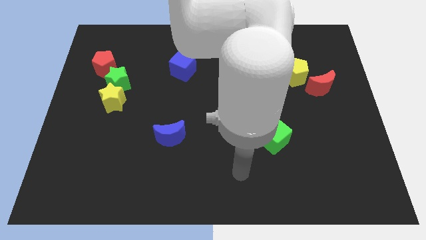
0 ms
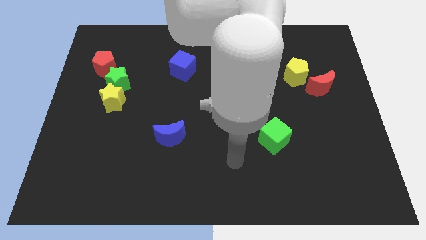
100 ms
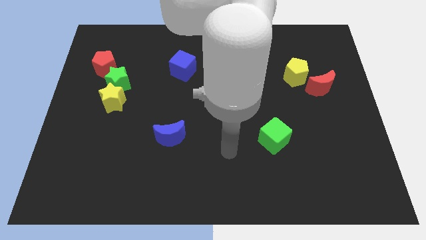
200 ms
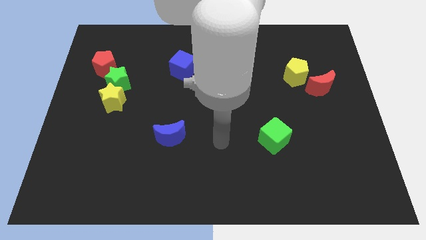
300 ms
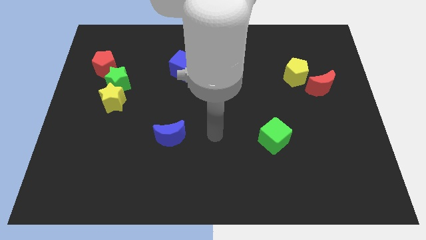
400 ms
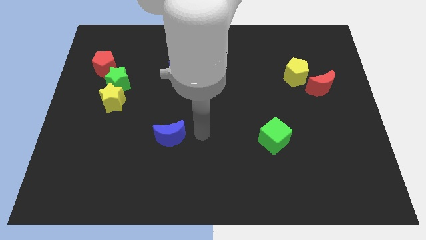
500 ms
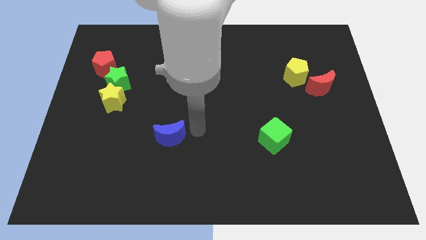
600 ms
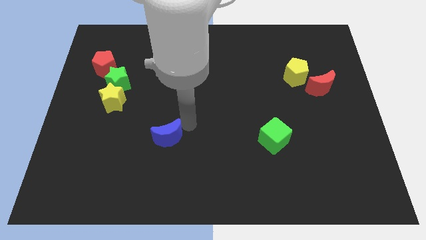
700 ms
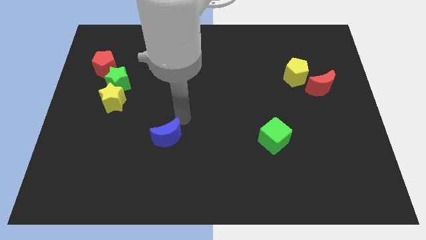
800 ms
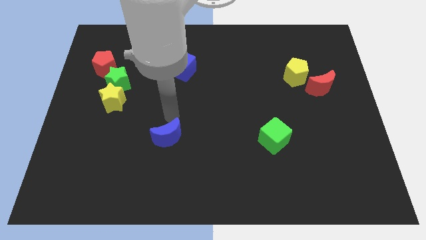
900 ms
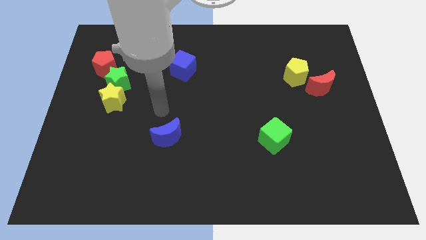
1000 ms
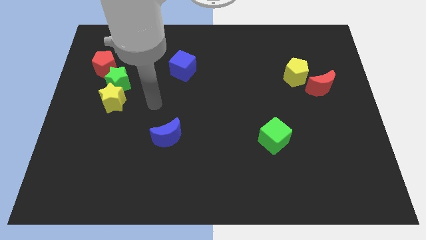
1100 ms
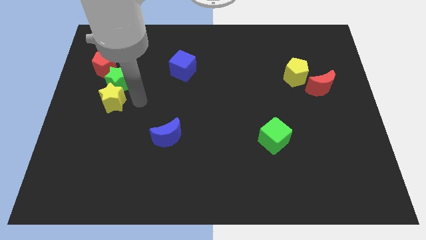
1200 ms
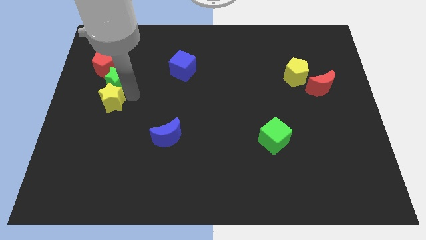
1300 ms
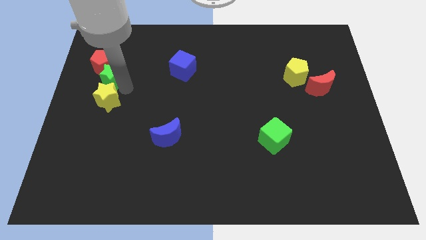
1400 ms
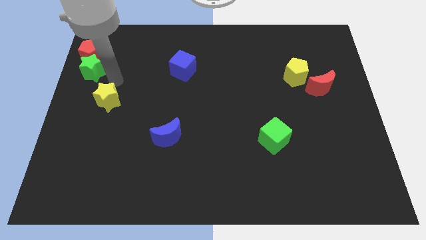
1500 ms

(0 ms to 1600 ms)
move the yellow star away from the green star

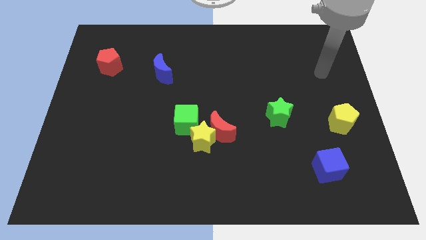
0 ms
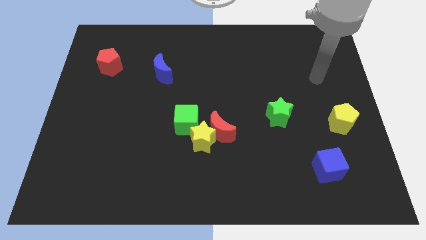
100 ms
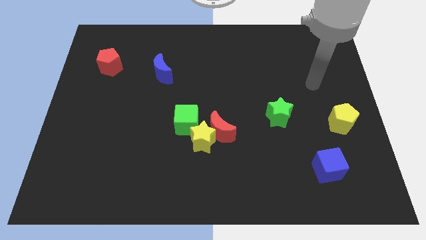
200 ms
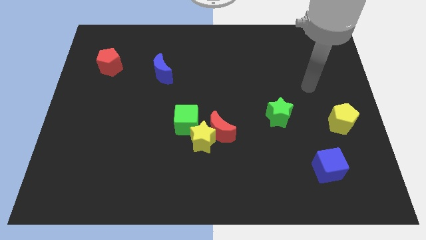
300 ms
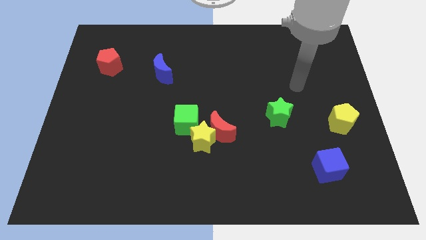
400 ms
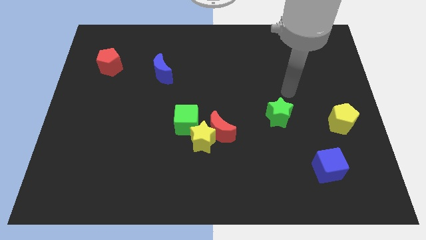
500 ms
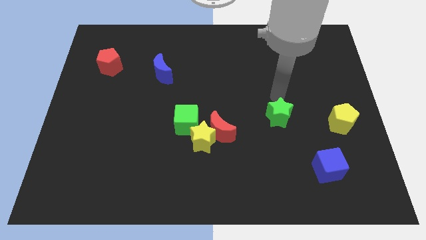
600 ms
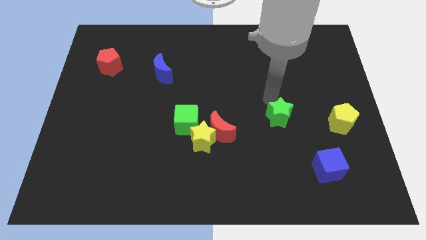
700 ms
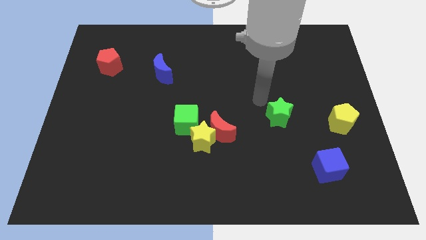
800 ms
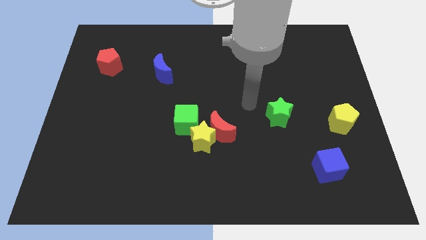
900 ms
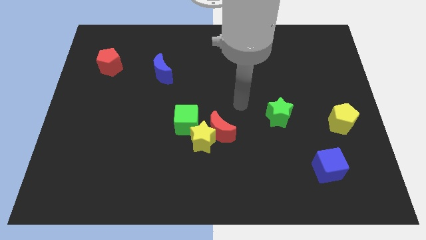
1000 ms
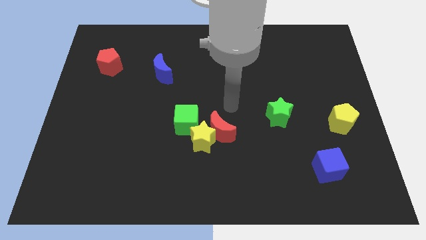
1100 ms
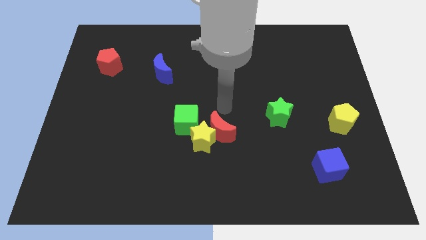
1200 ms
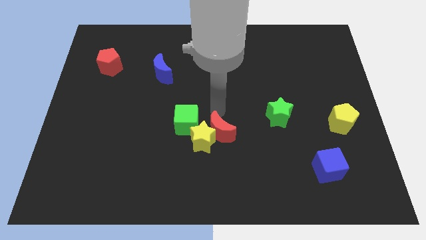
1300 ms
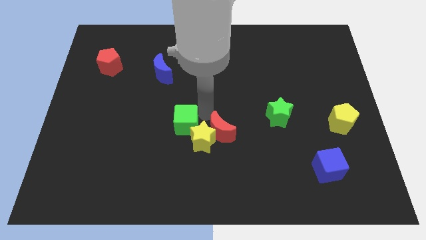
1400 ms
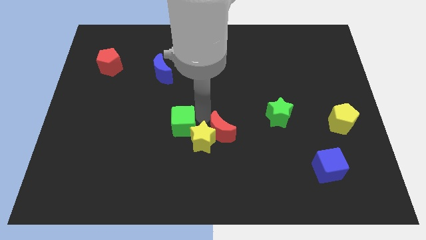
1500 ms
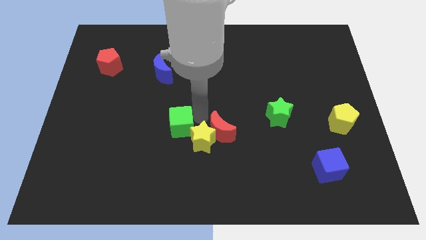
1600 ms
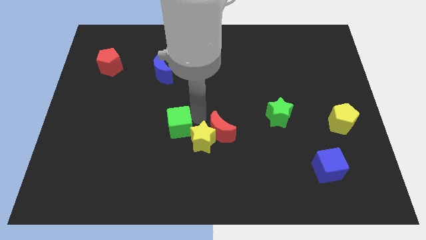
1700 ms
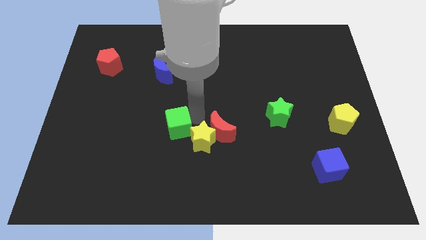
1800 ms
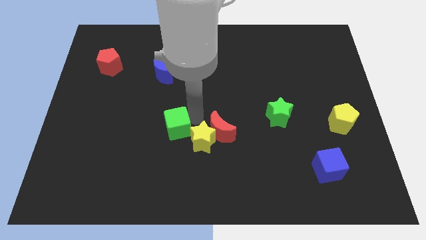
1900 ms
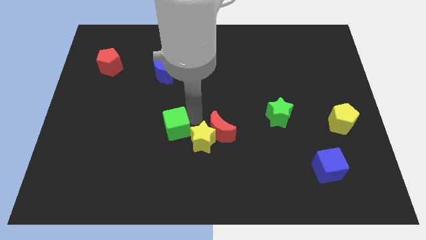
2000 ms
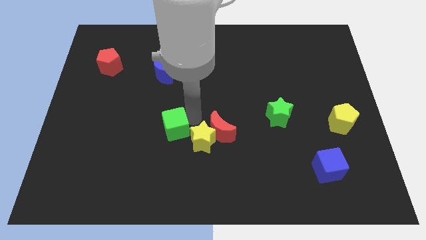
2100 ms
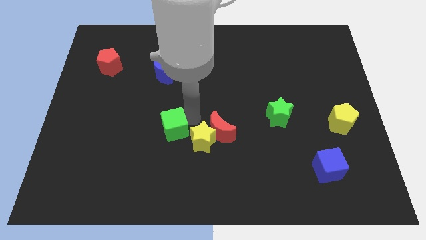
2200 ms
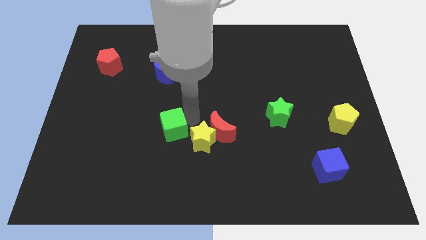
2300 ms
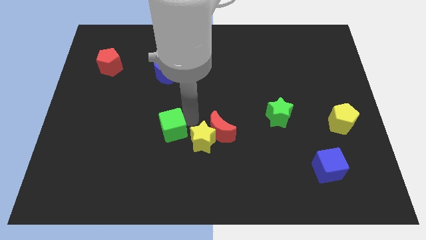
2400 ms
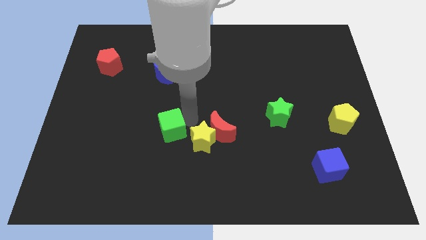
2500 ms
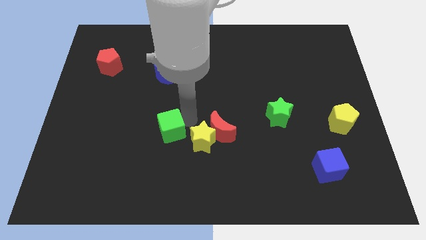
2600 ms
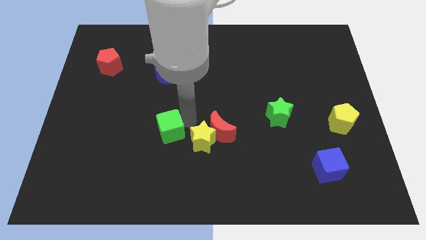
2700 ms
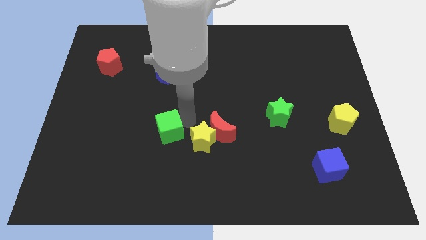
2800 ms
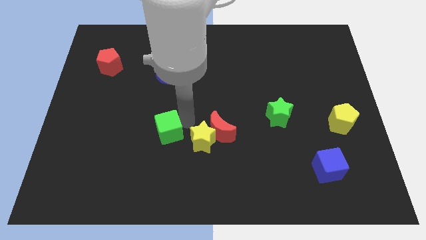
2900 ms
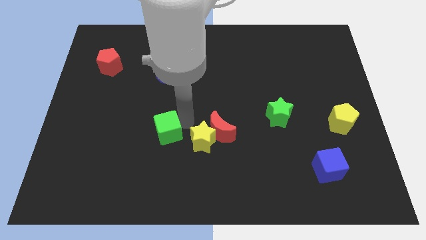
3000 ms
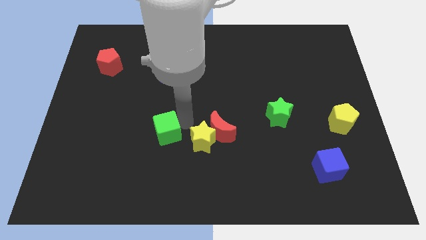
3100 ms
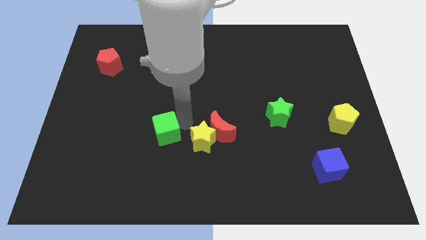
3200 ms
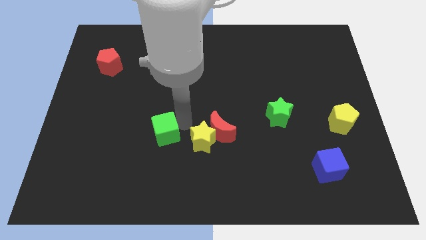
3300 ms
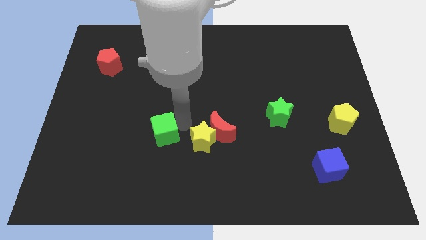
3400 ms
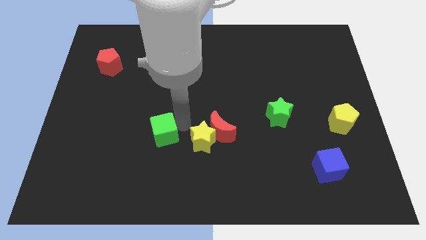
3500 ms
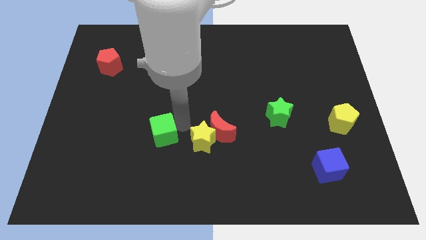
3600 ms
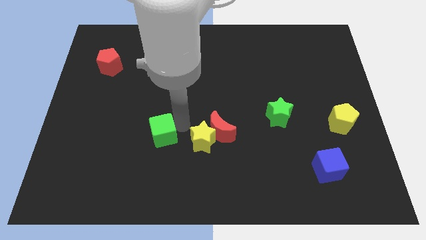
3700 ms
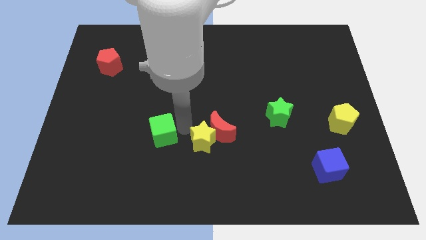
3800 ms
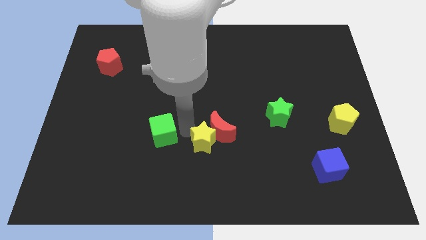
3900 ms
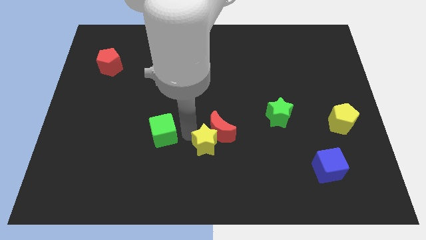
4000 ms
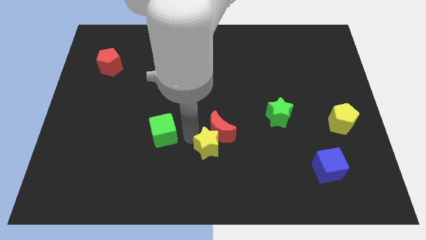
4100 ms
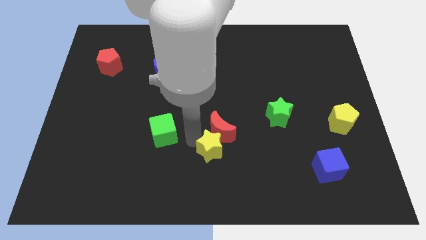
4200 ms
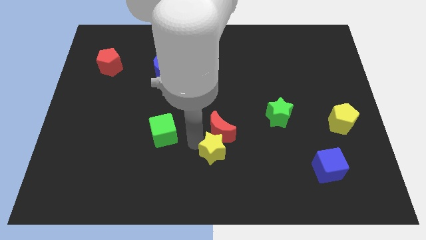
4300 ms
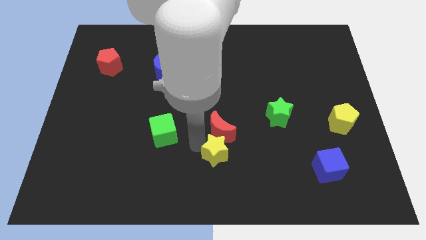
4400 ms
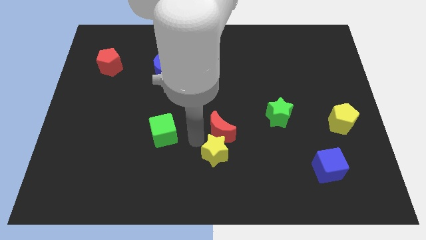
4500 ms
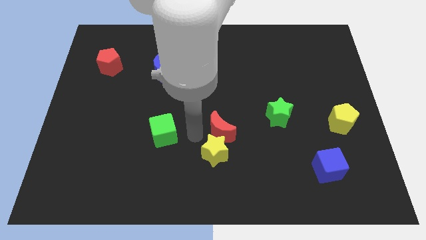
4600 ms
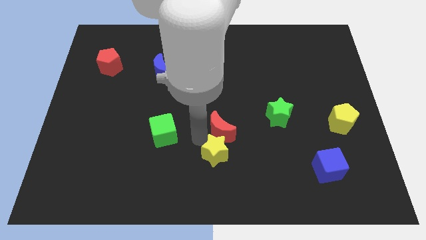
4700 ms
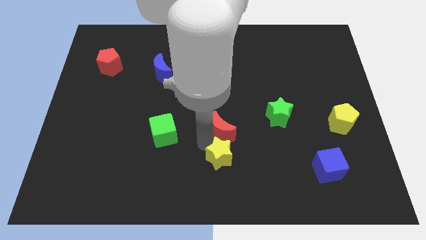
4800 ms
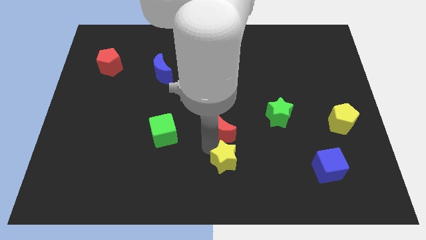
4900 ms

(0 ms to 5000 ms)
separate the yellow star from the red moon and green cube

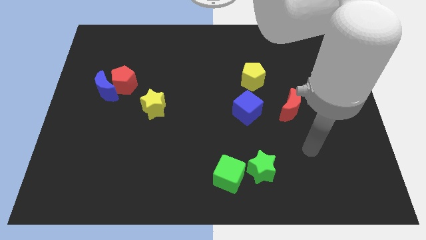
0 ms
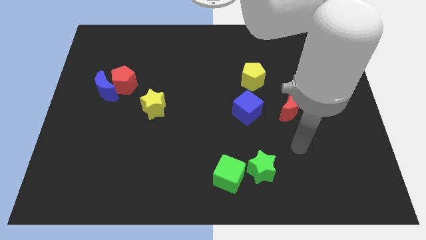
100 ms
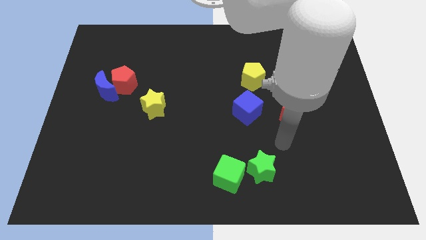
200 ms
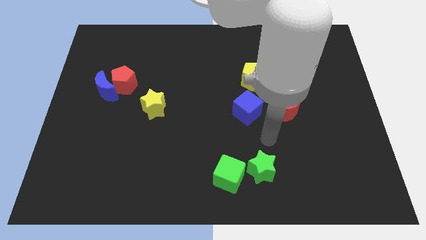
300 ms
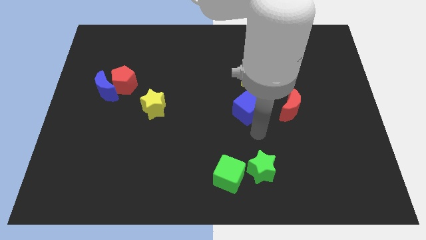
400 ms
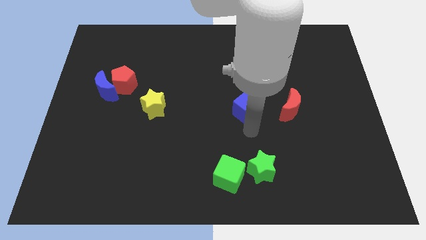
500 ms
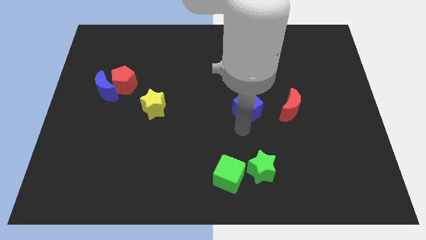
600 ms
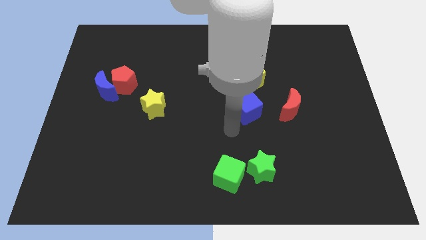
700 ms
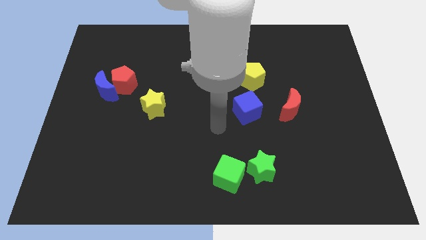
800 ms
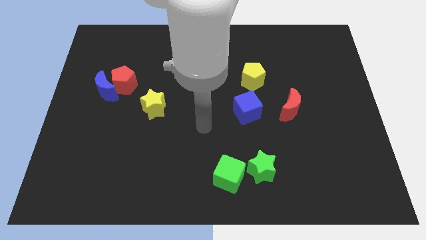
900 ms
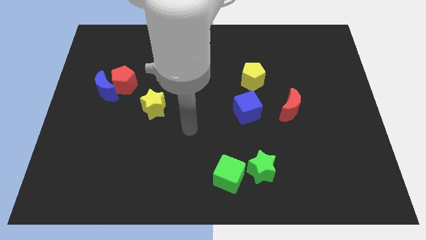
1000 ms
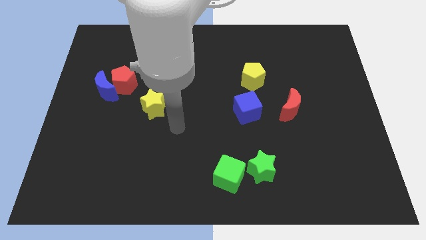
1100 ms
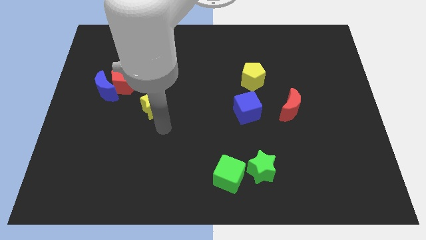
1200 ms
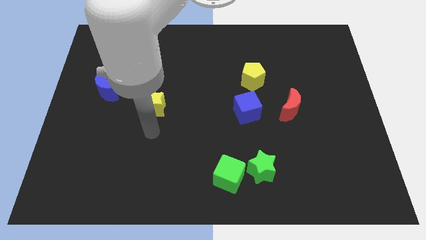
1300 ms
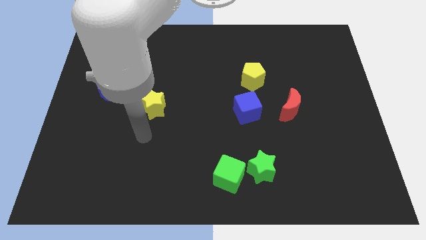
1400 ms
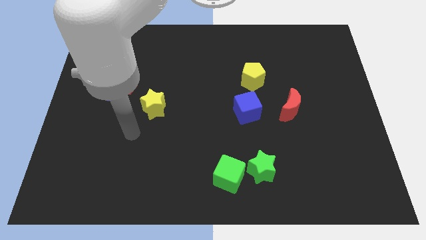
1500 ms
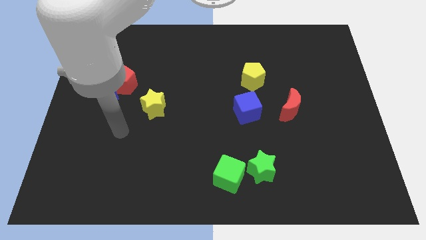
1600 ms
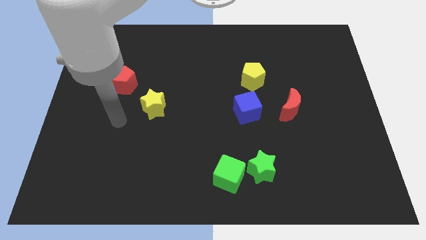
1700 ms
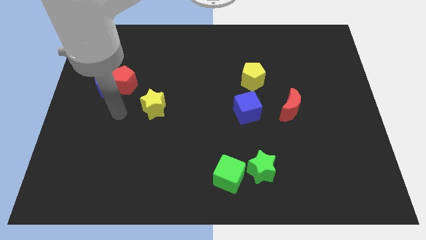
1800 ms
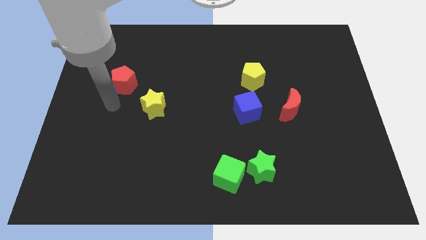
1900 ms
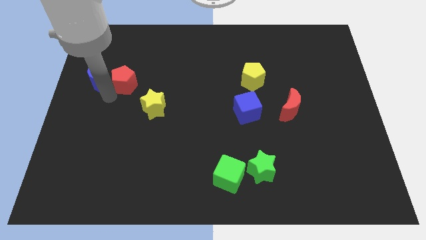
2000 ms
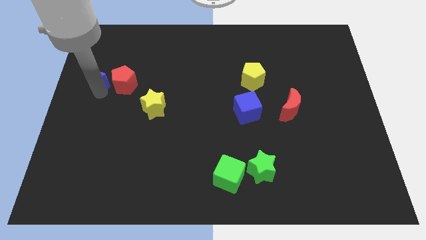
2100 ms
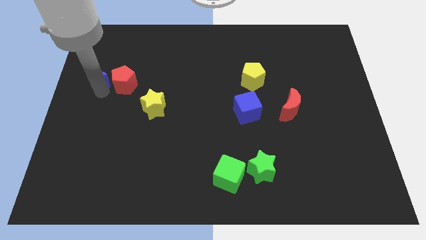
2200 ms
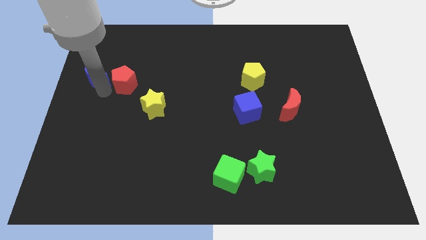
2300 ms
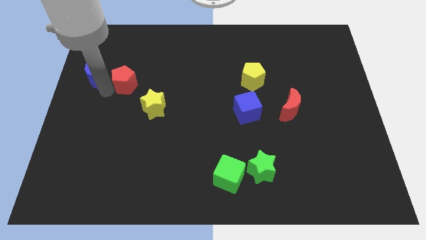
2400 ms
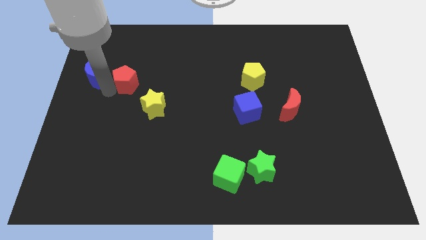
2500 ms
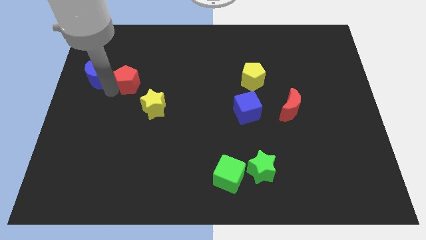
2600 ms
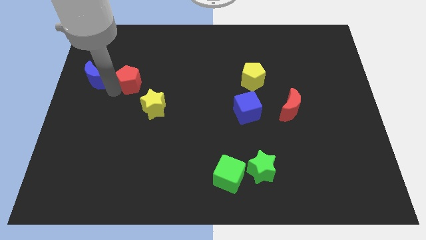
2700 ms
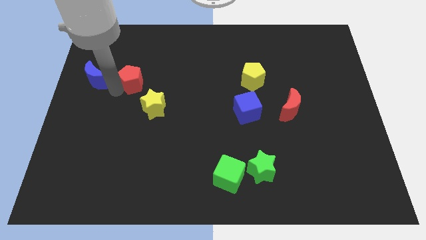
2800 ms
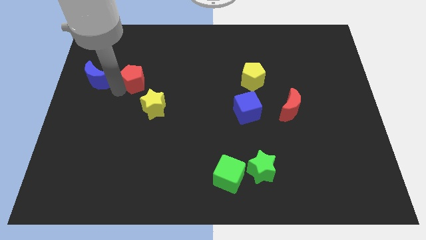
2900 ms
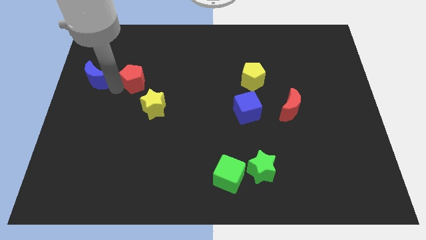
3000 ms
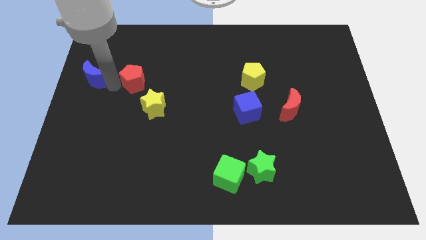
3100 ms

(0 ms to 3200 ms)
pull the red pentagon apart from the blue moon
